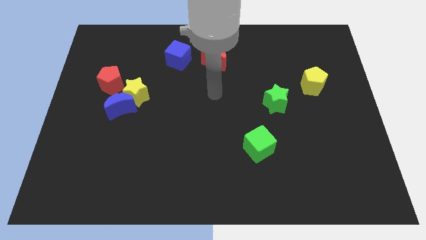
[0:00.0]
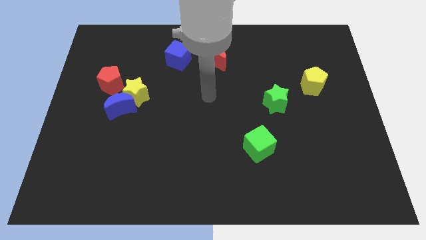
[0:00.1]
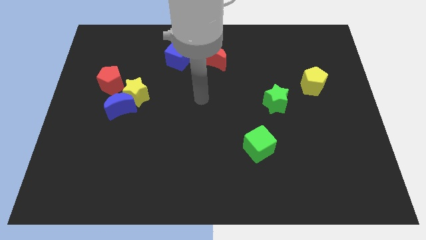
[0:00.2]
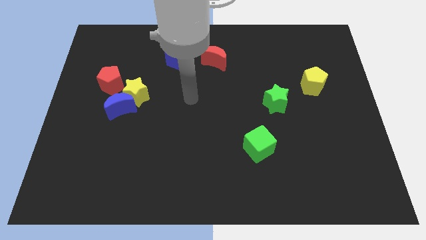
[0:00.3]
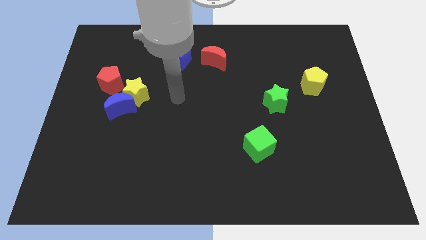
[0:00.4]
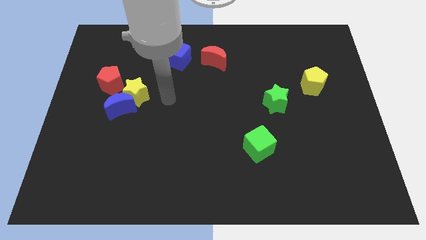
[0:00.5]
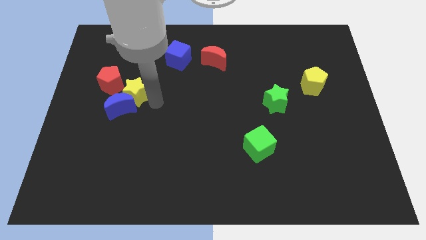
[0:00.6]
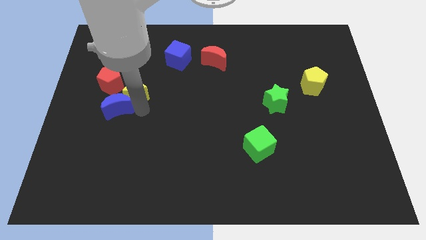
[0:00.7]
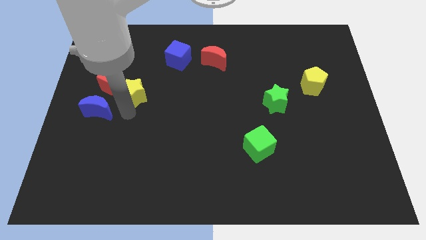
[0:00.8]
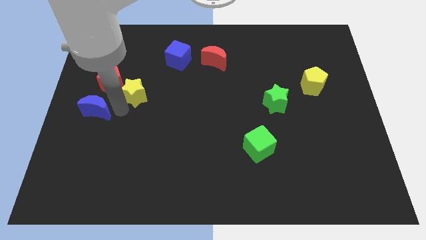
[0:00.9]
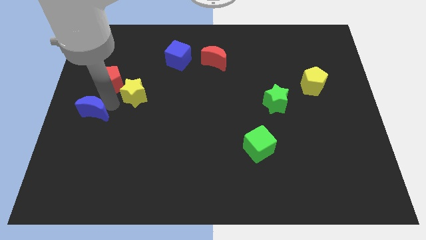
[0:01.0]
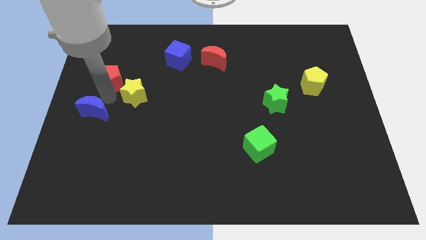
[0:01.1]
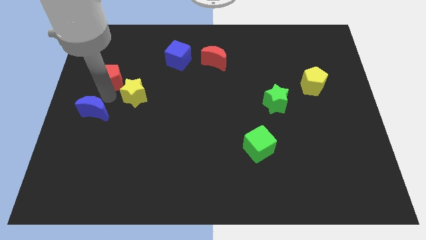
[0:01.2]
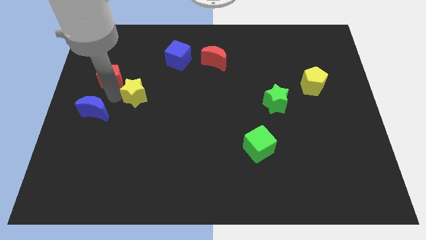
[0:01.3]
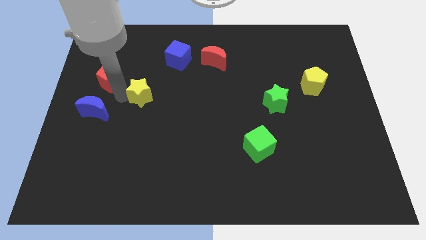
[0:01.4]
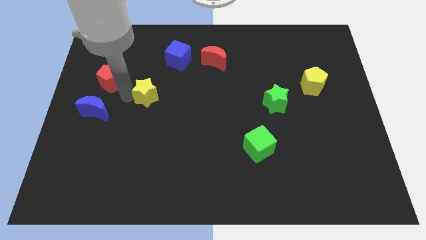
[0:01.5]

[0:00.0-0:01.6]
pull the yellow star apart from the blue moon and red pentagon

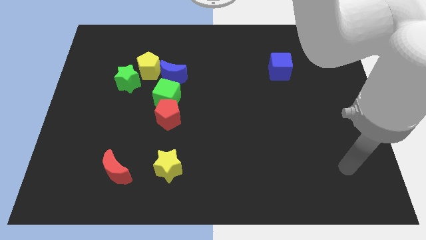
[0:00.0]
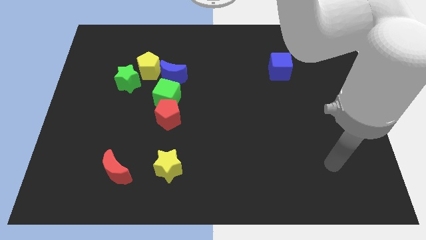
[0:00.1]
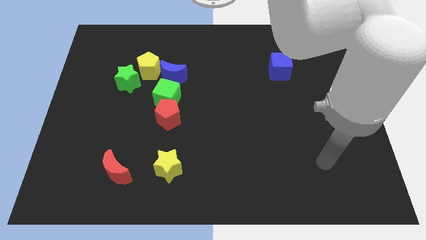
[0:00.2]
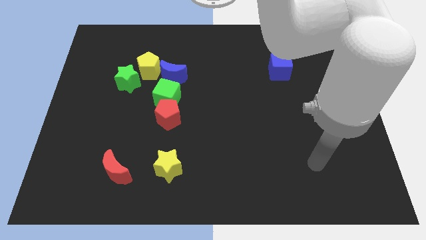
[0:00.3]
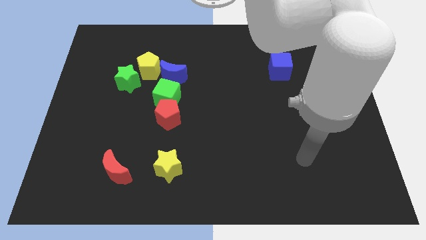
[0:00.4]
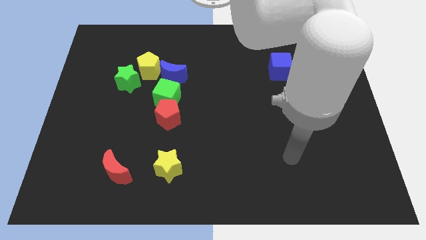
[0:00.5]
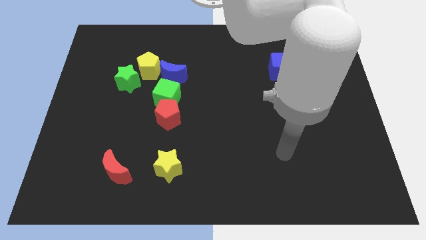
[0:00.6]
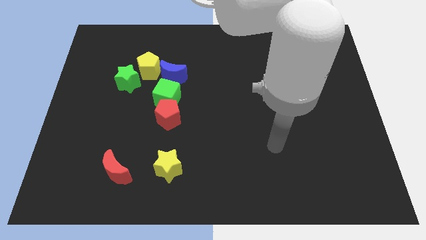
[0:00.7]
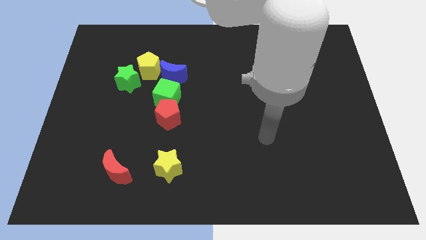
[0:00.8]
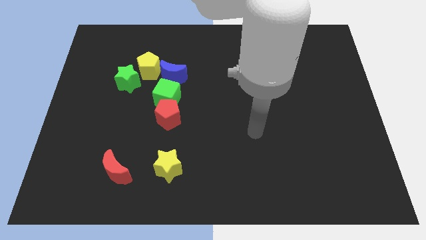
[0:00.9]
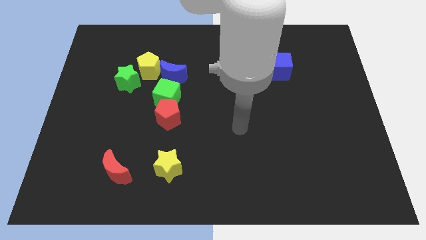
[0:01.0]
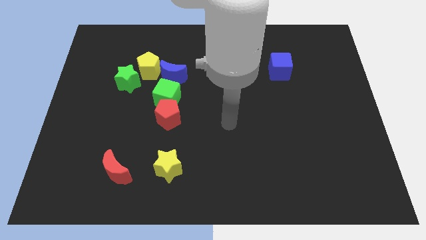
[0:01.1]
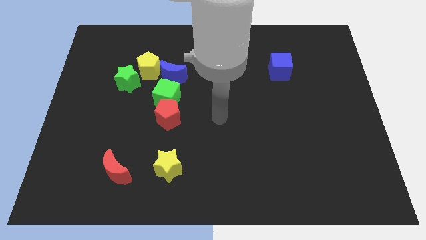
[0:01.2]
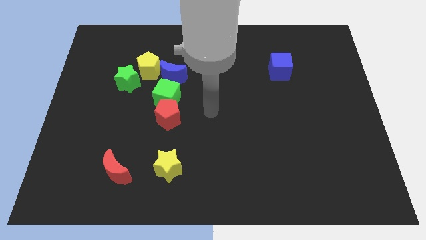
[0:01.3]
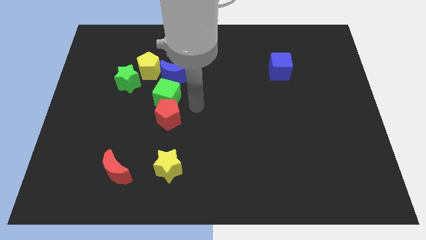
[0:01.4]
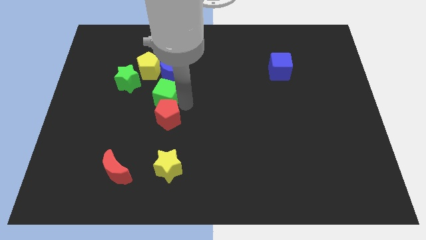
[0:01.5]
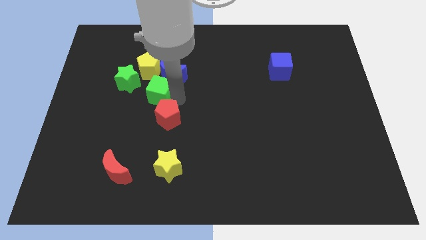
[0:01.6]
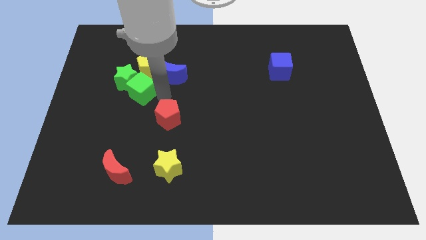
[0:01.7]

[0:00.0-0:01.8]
separate the red pentagon from the green cube

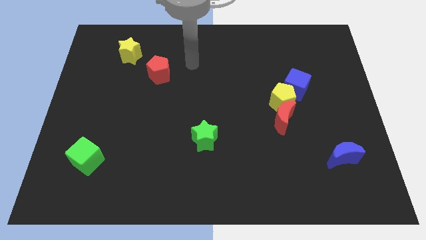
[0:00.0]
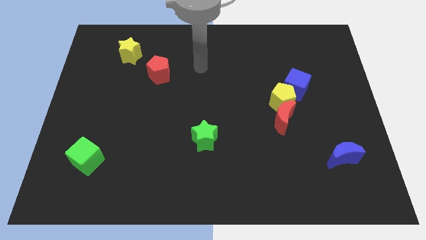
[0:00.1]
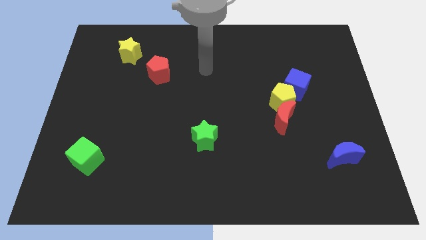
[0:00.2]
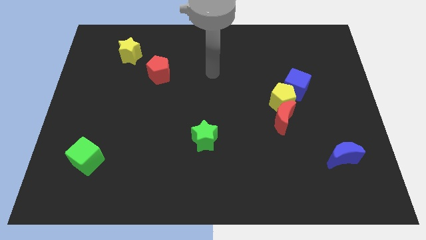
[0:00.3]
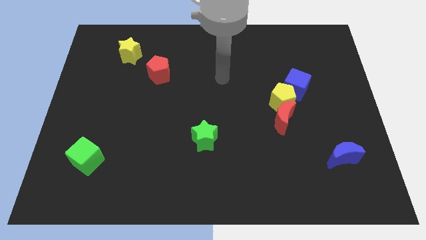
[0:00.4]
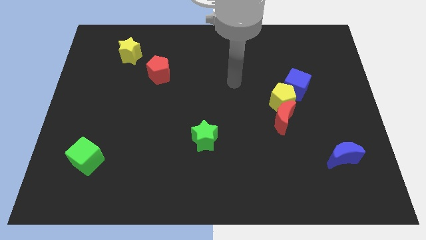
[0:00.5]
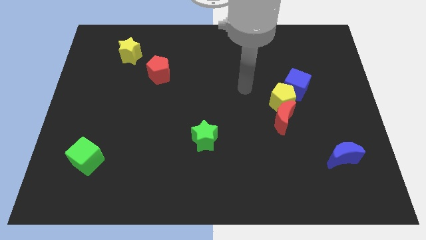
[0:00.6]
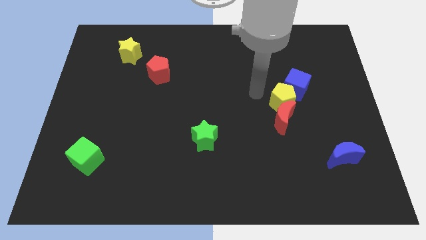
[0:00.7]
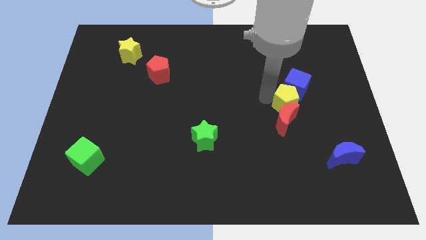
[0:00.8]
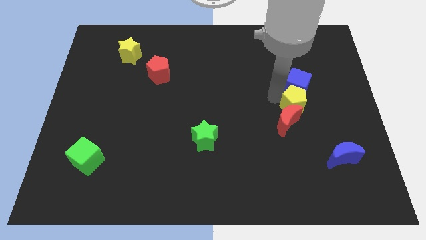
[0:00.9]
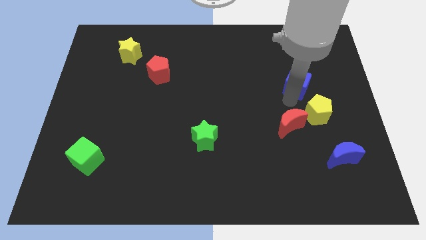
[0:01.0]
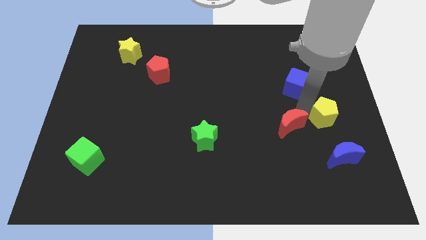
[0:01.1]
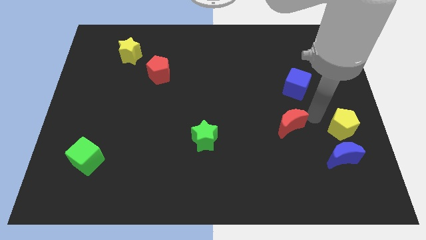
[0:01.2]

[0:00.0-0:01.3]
separate the red moon from the yellow pentagon

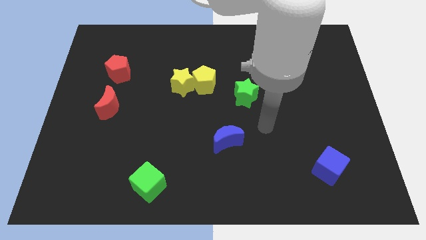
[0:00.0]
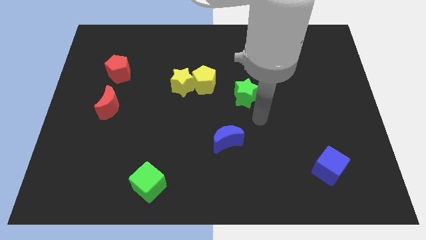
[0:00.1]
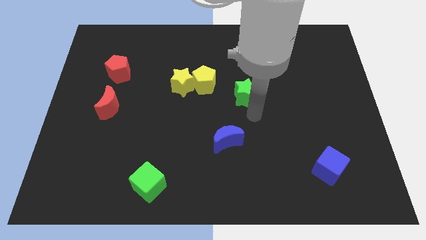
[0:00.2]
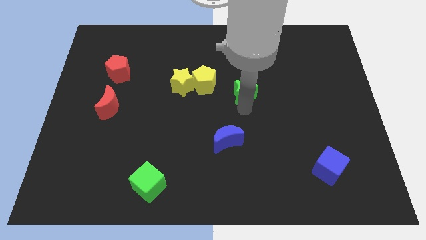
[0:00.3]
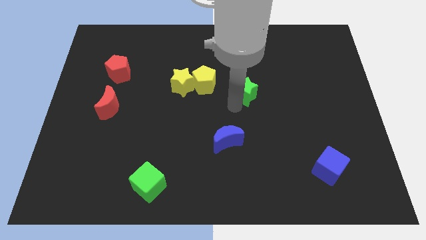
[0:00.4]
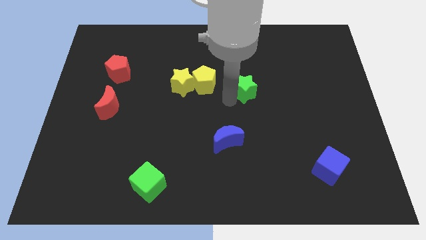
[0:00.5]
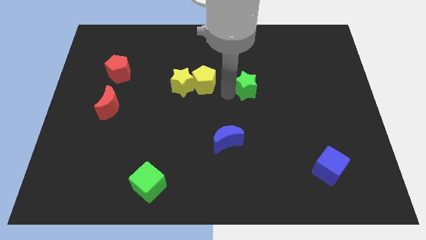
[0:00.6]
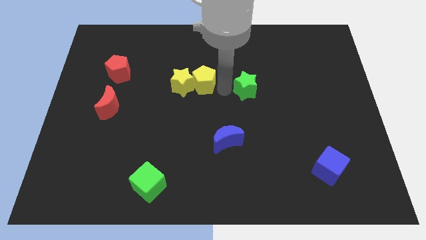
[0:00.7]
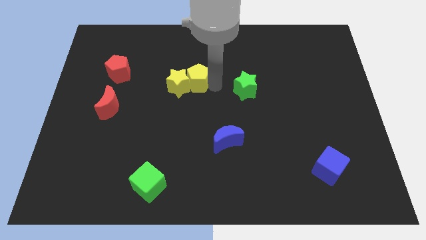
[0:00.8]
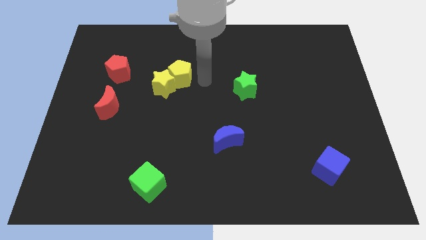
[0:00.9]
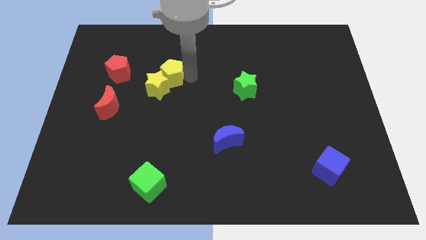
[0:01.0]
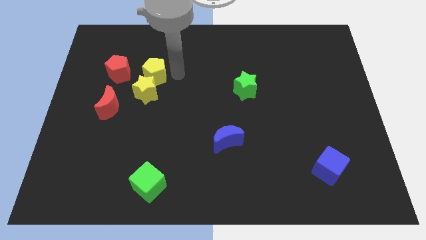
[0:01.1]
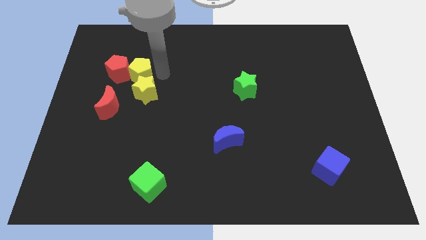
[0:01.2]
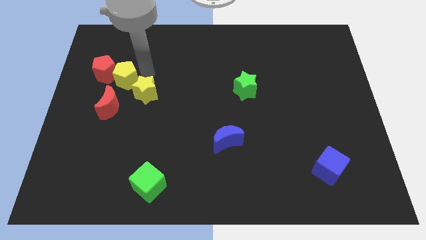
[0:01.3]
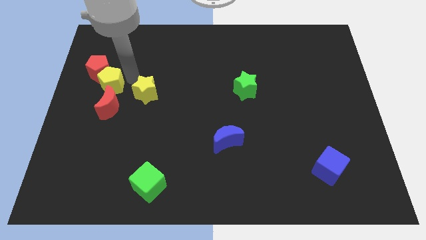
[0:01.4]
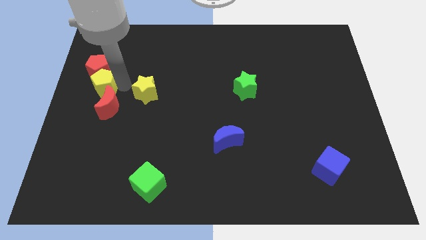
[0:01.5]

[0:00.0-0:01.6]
separate the yellow star from the yellow pentagon

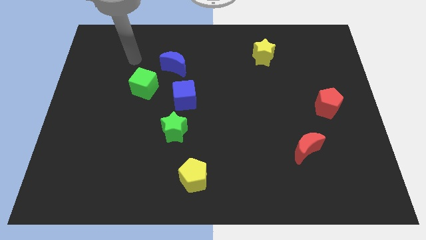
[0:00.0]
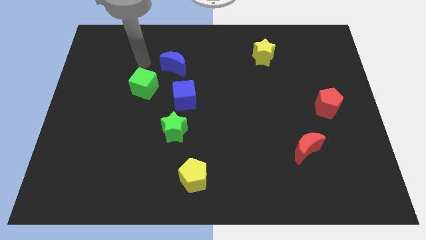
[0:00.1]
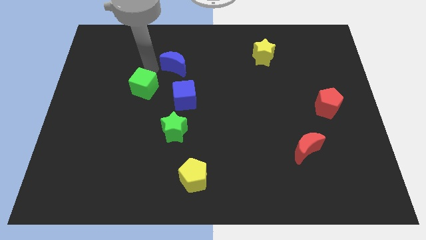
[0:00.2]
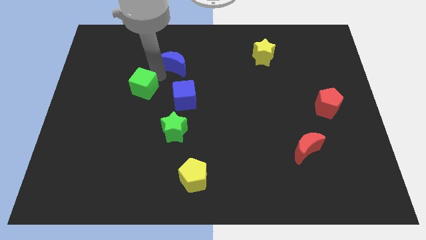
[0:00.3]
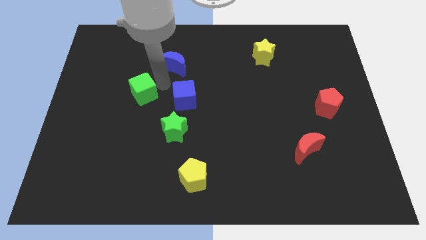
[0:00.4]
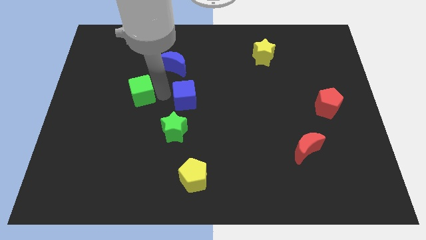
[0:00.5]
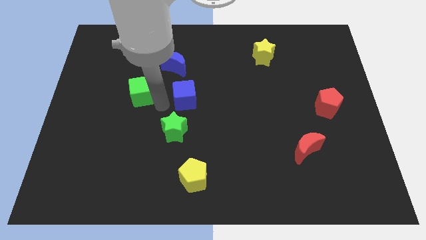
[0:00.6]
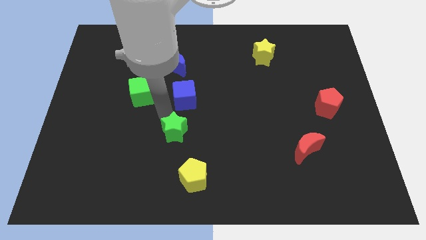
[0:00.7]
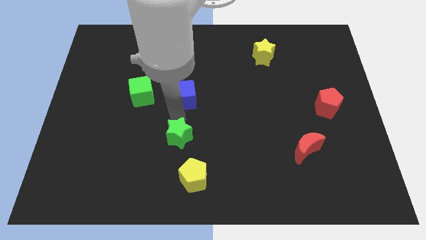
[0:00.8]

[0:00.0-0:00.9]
move the blue cube away from the green star

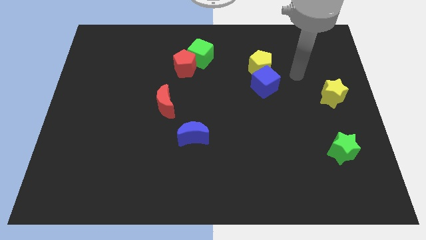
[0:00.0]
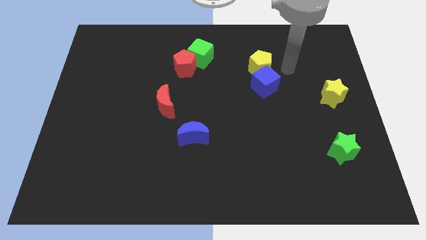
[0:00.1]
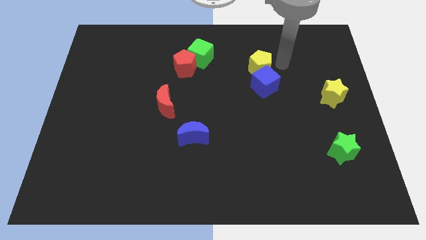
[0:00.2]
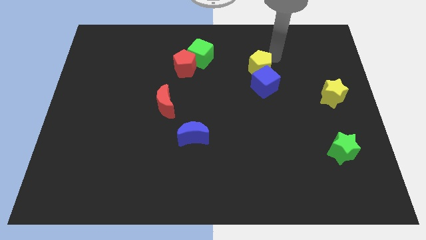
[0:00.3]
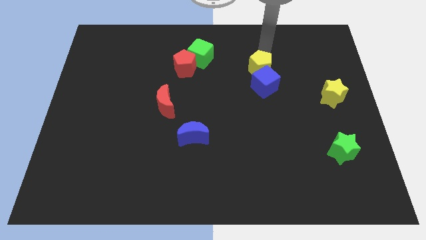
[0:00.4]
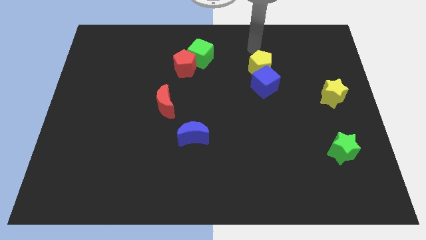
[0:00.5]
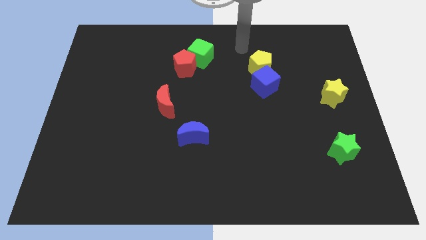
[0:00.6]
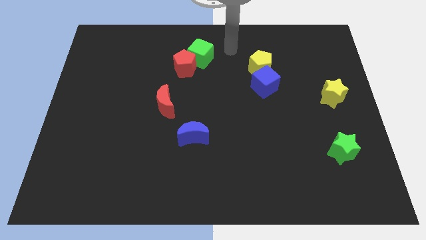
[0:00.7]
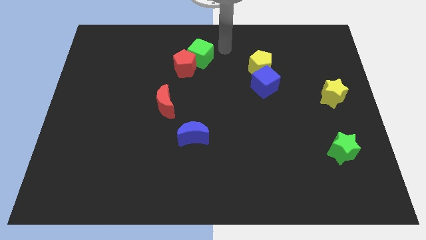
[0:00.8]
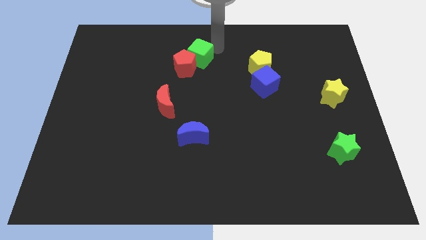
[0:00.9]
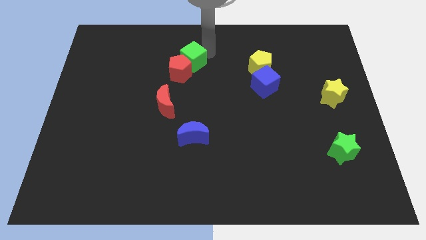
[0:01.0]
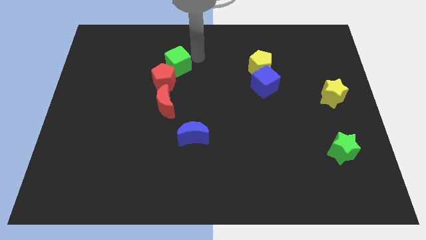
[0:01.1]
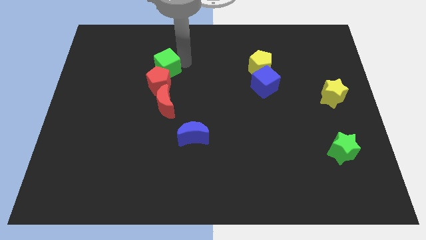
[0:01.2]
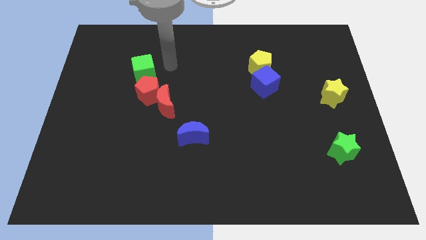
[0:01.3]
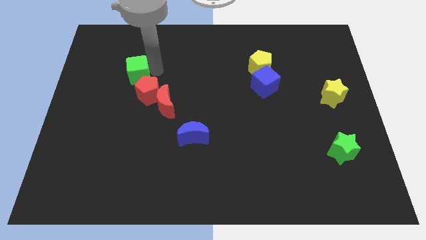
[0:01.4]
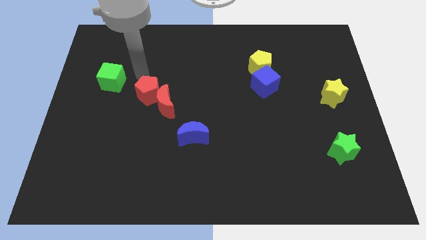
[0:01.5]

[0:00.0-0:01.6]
move the red pentagon away from the green cube

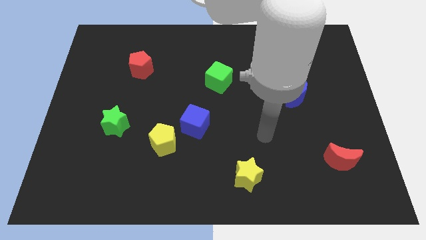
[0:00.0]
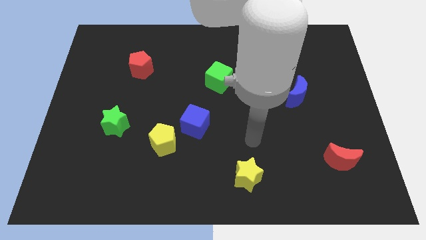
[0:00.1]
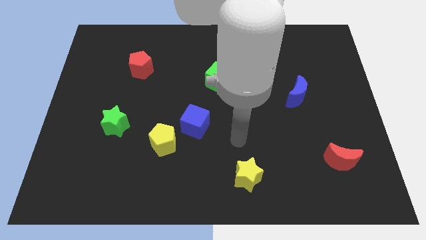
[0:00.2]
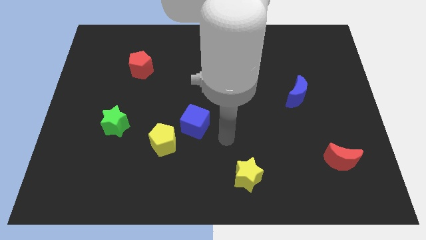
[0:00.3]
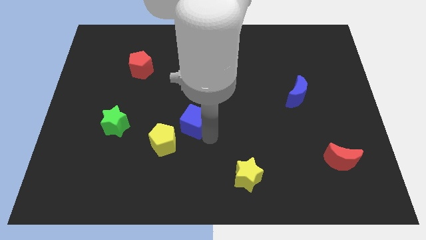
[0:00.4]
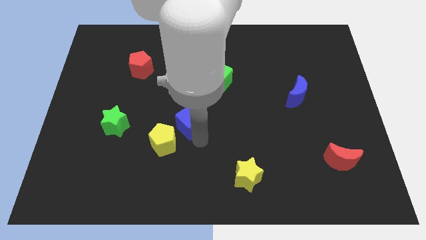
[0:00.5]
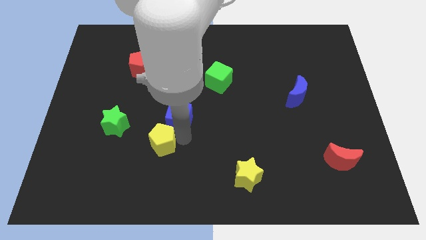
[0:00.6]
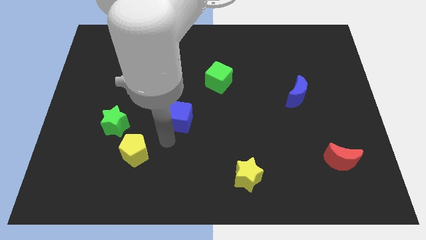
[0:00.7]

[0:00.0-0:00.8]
separate the blue cube from the yellow pentagon
